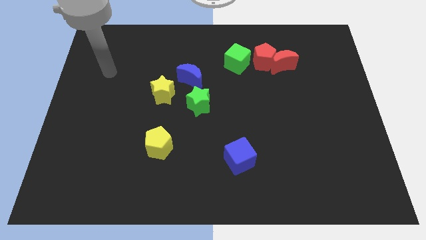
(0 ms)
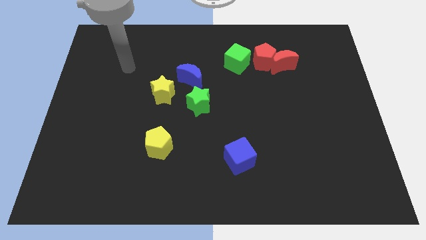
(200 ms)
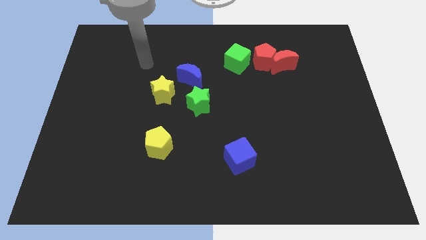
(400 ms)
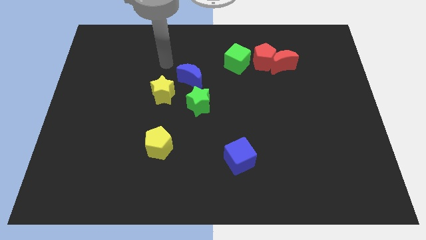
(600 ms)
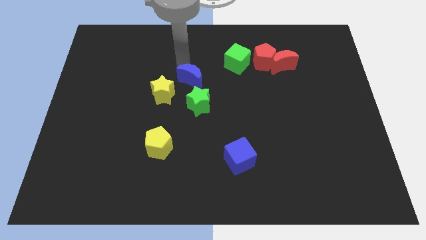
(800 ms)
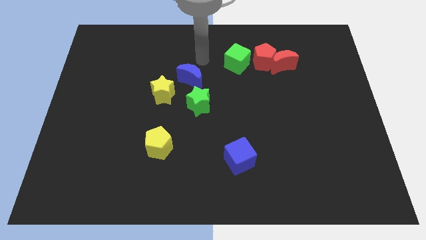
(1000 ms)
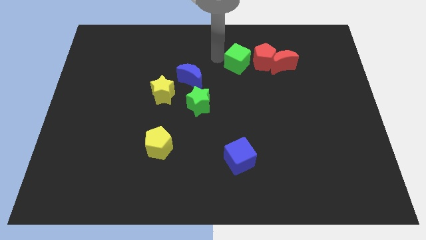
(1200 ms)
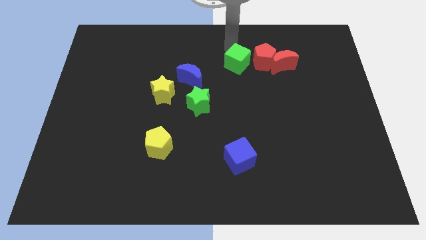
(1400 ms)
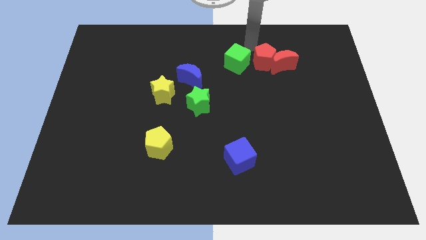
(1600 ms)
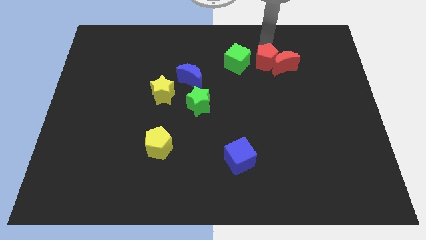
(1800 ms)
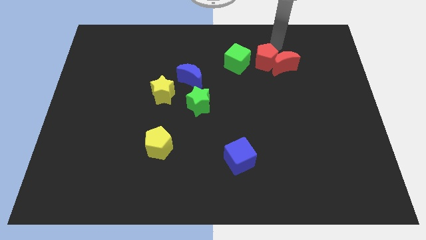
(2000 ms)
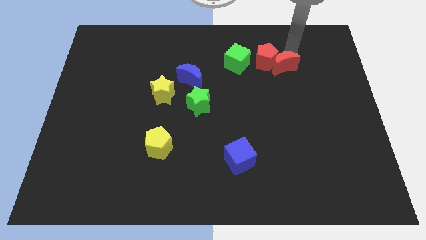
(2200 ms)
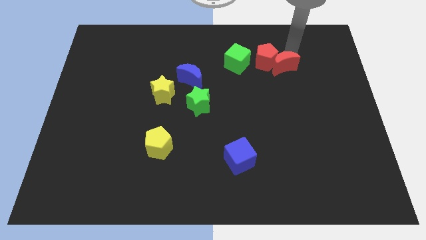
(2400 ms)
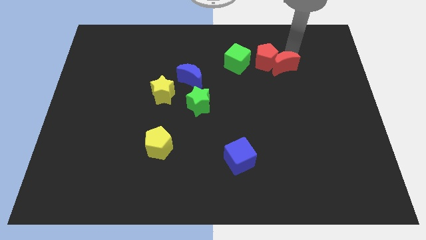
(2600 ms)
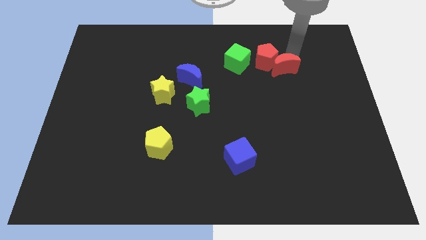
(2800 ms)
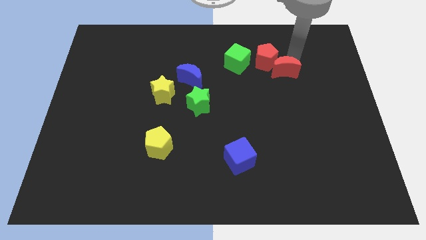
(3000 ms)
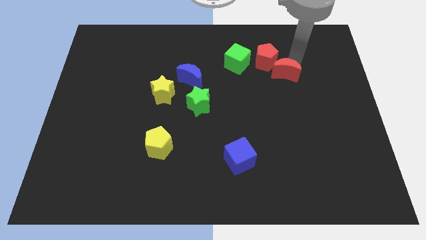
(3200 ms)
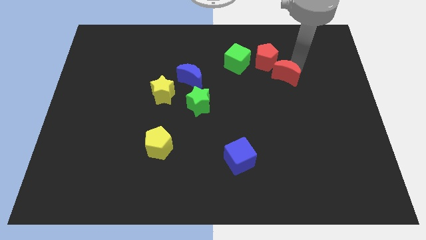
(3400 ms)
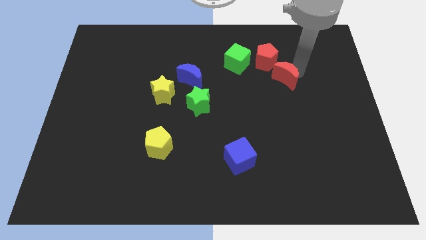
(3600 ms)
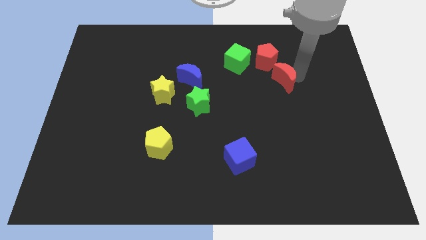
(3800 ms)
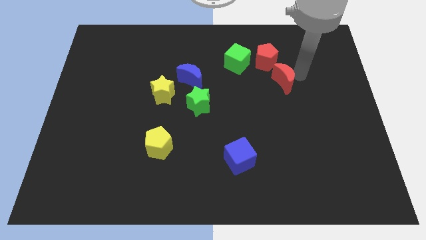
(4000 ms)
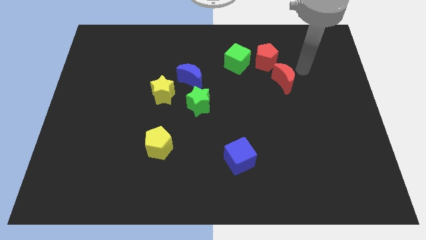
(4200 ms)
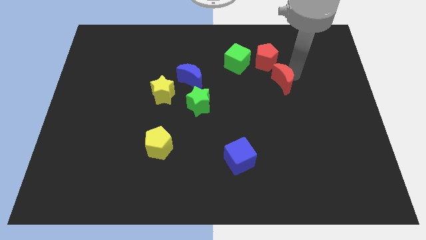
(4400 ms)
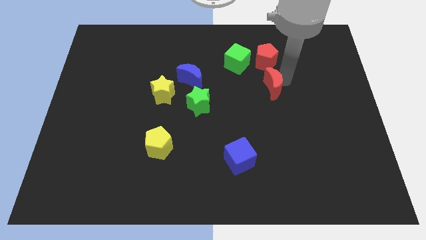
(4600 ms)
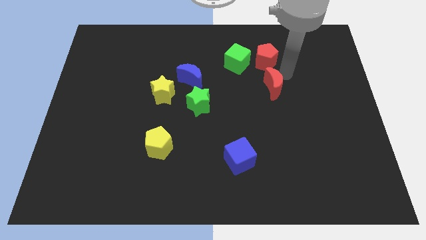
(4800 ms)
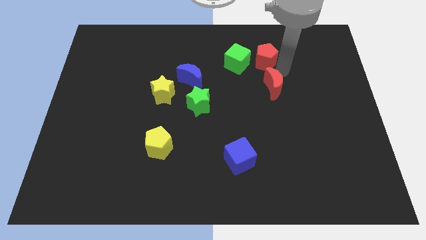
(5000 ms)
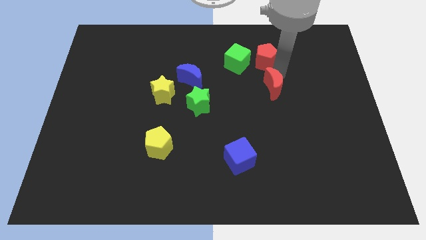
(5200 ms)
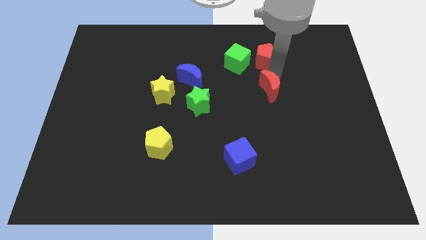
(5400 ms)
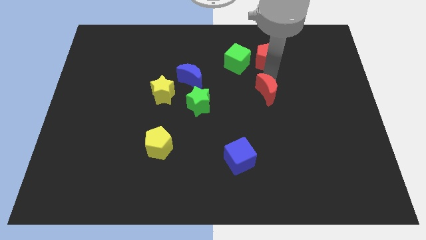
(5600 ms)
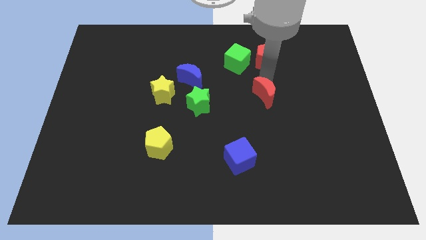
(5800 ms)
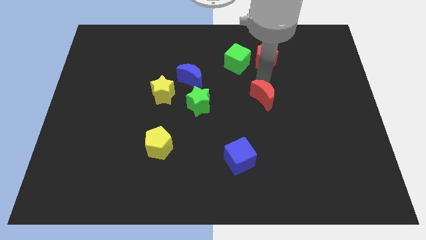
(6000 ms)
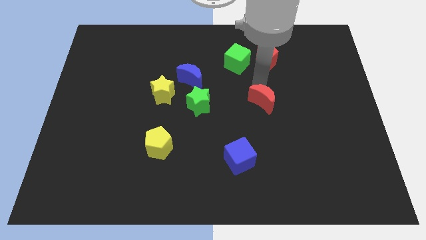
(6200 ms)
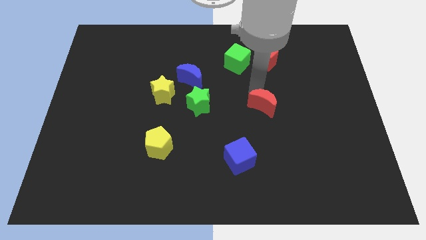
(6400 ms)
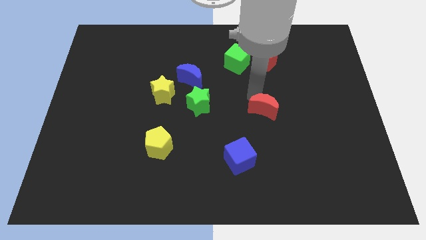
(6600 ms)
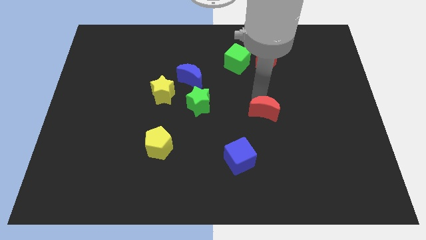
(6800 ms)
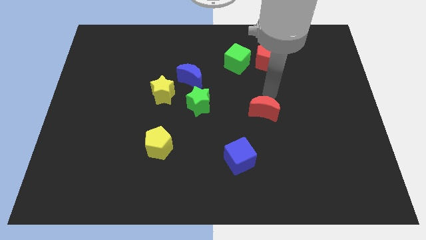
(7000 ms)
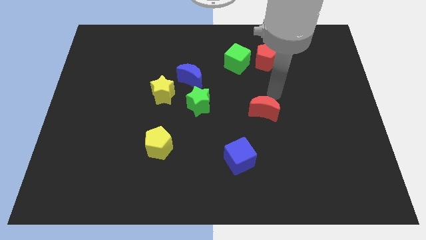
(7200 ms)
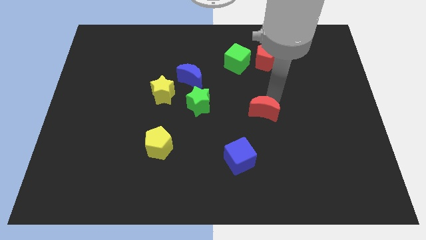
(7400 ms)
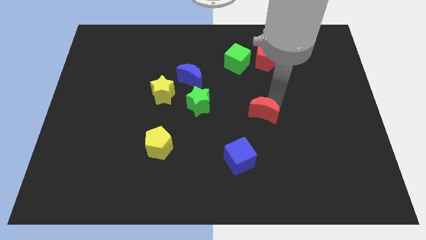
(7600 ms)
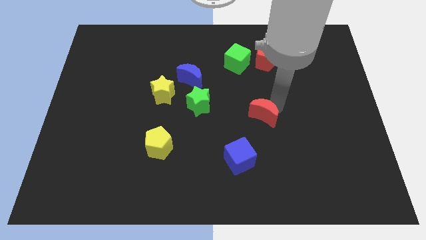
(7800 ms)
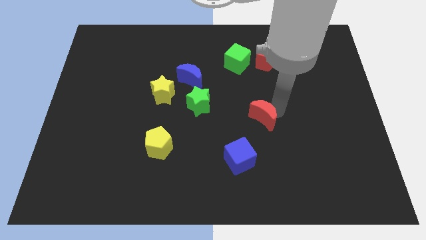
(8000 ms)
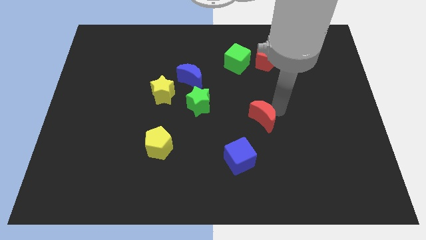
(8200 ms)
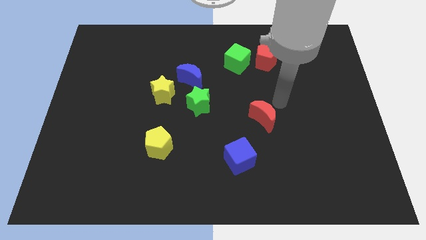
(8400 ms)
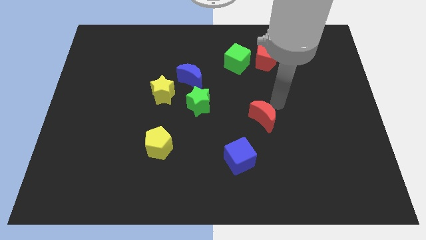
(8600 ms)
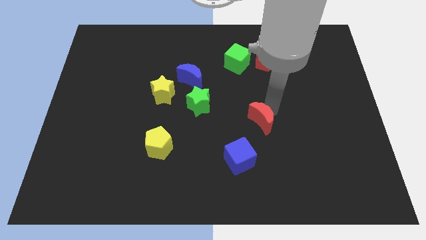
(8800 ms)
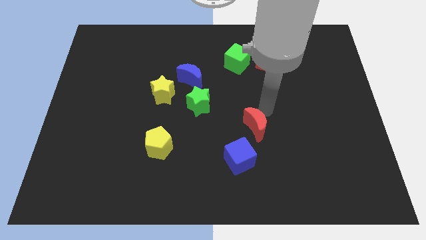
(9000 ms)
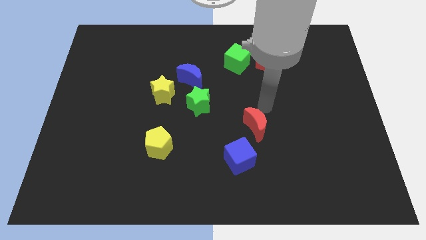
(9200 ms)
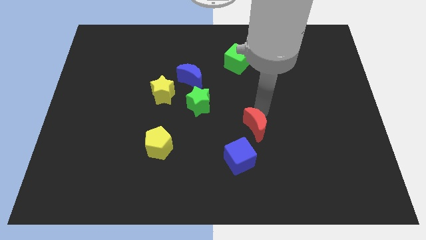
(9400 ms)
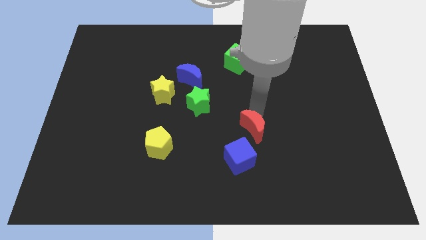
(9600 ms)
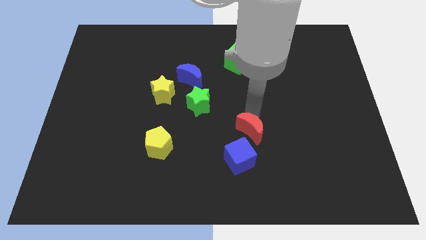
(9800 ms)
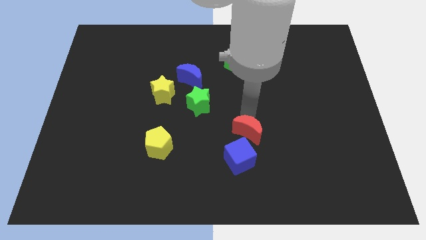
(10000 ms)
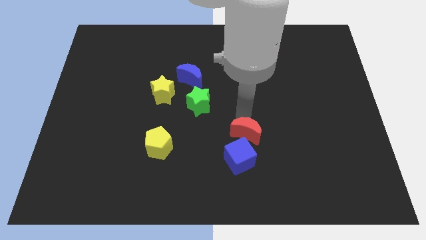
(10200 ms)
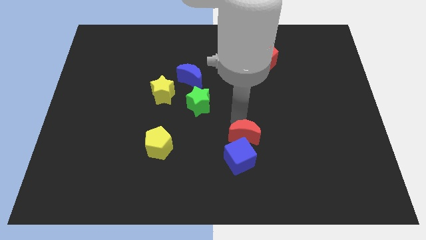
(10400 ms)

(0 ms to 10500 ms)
slide the red moon towards the blue cube
